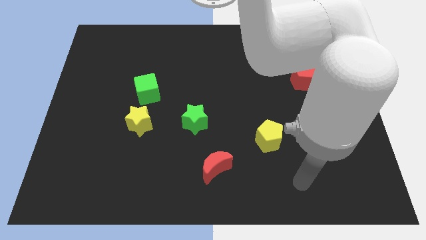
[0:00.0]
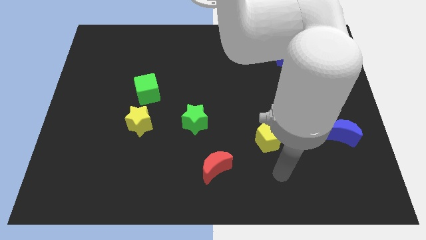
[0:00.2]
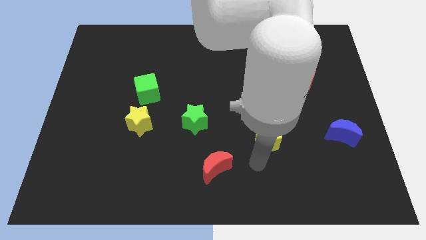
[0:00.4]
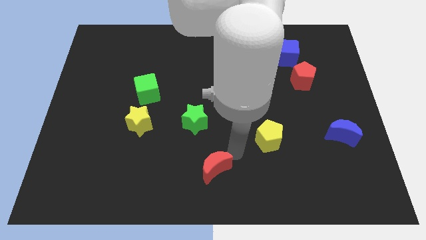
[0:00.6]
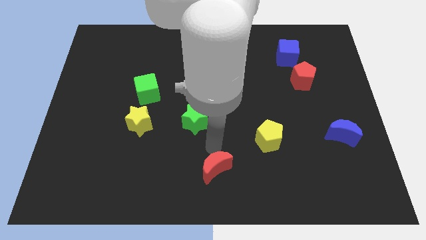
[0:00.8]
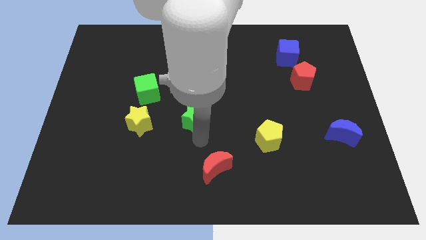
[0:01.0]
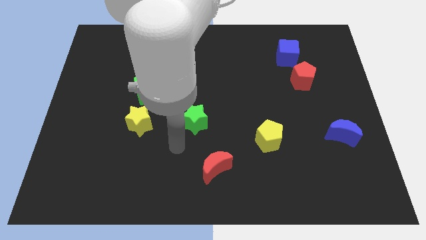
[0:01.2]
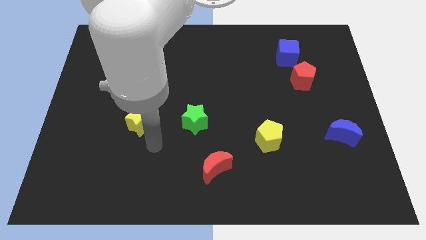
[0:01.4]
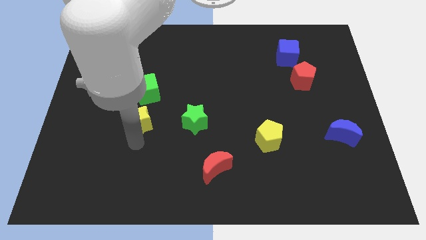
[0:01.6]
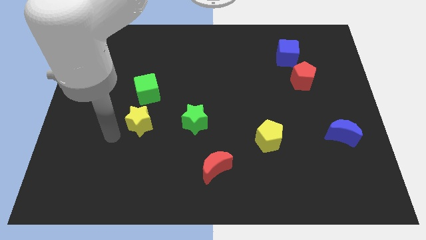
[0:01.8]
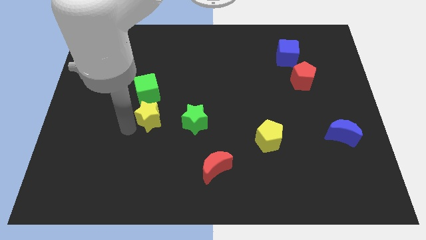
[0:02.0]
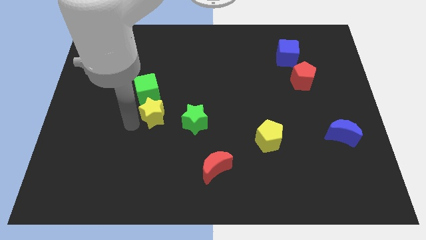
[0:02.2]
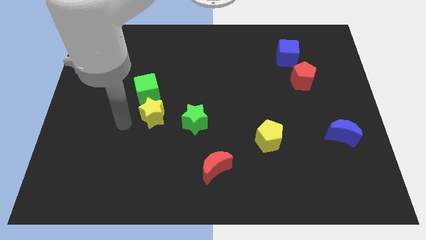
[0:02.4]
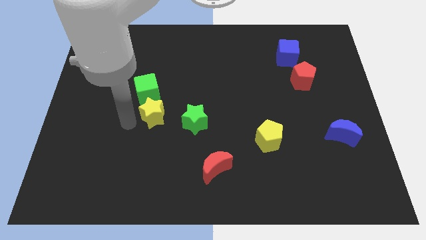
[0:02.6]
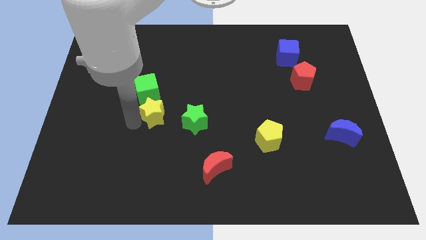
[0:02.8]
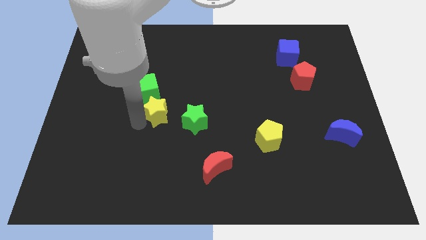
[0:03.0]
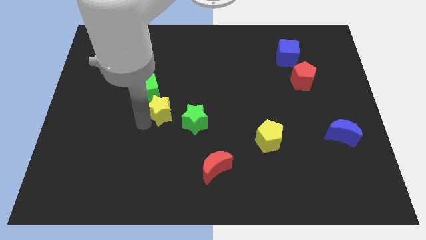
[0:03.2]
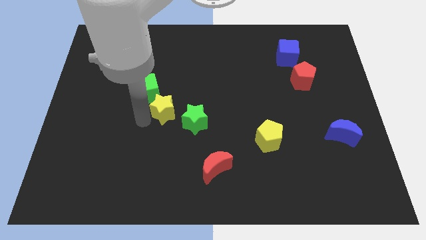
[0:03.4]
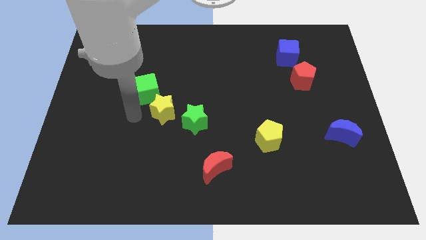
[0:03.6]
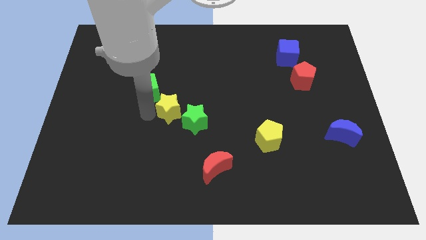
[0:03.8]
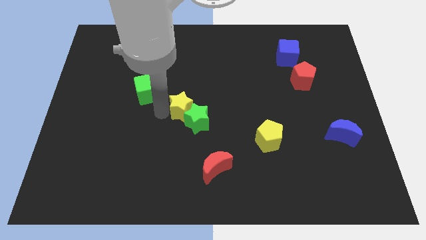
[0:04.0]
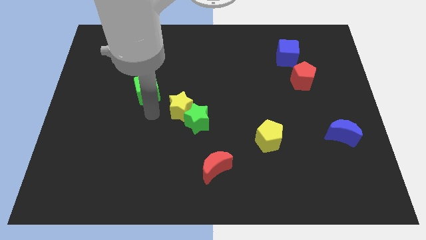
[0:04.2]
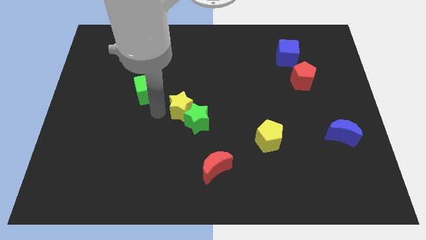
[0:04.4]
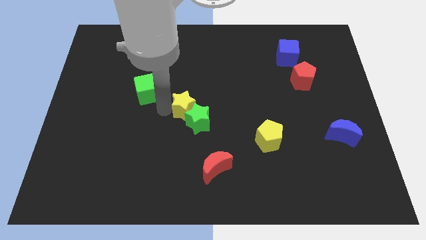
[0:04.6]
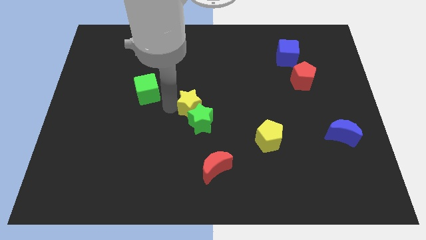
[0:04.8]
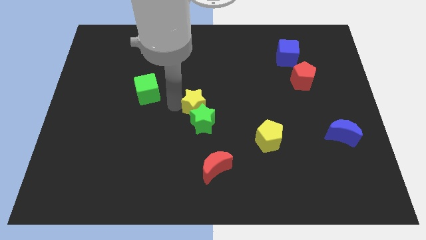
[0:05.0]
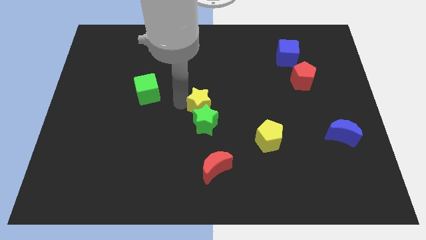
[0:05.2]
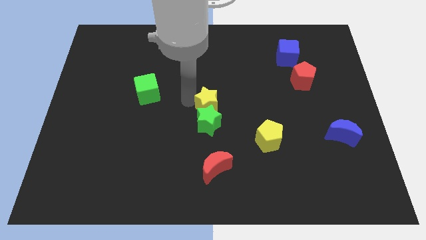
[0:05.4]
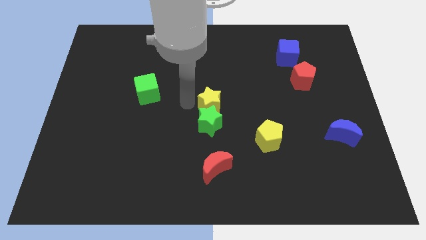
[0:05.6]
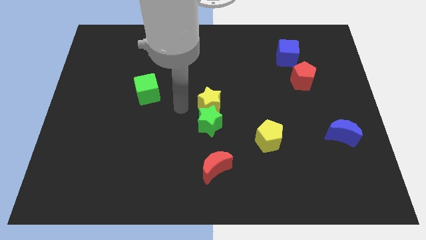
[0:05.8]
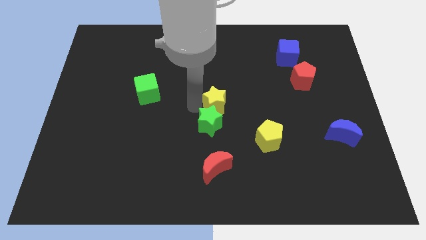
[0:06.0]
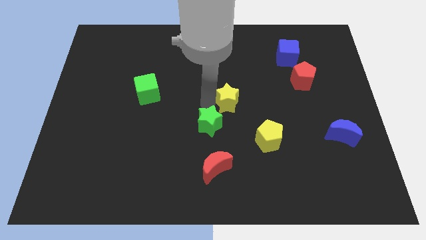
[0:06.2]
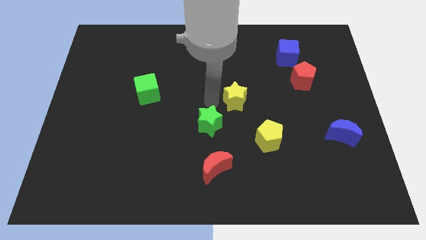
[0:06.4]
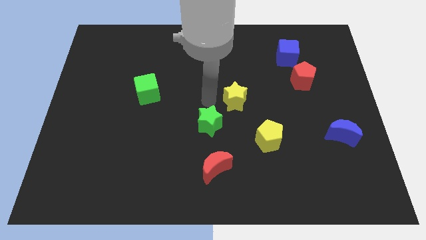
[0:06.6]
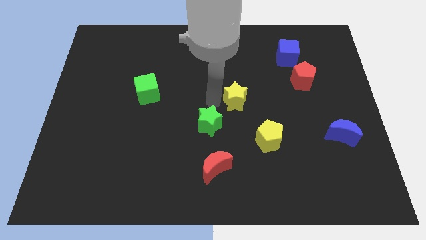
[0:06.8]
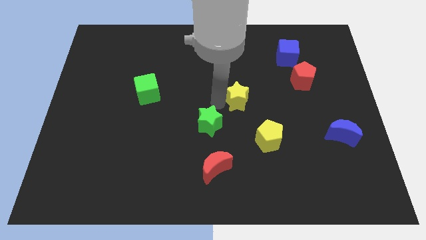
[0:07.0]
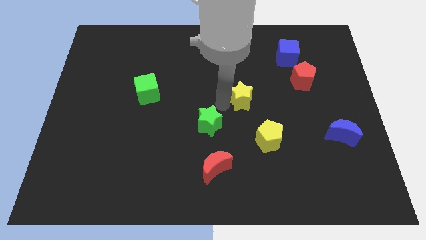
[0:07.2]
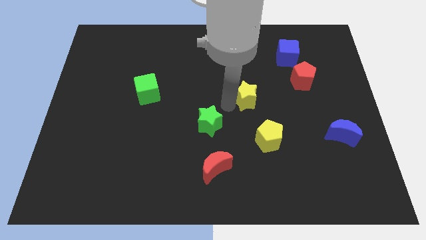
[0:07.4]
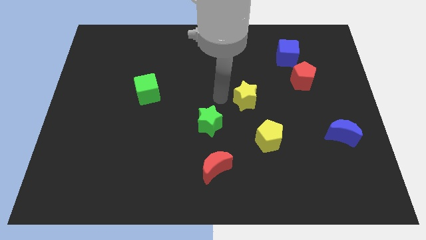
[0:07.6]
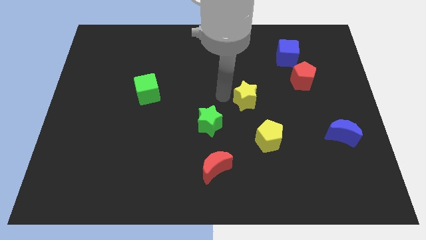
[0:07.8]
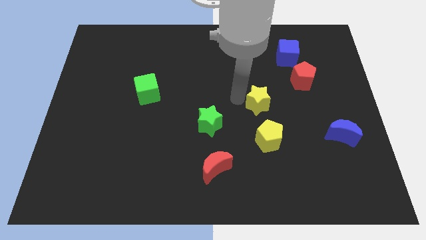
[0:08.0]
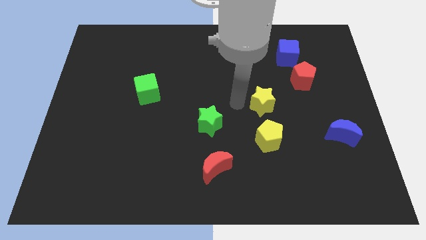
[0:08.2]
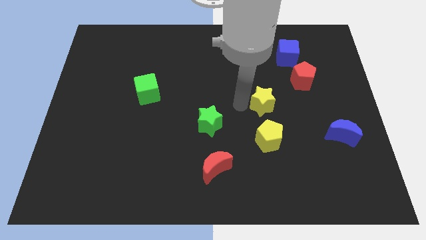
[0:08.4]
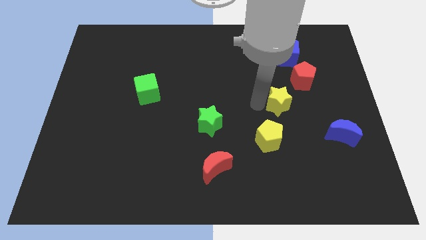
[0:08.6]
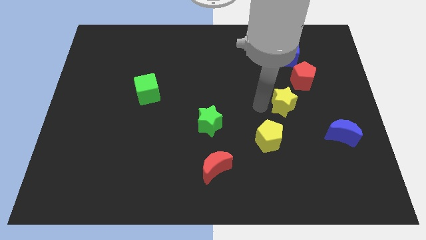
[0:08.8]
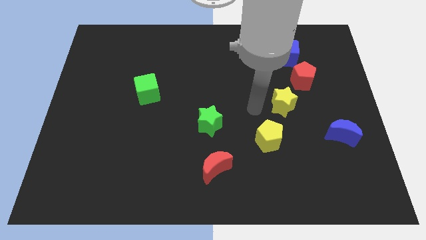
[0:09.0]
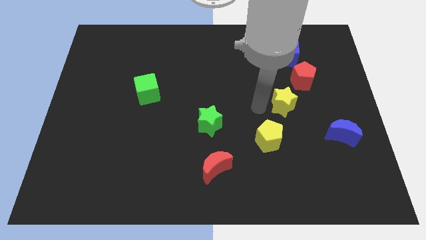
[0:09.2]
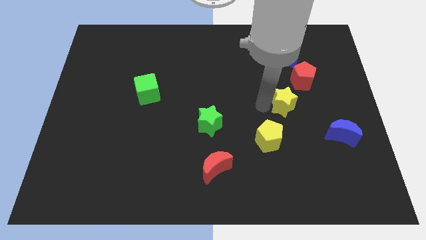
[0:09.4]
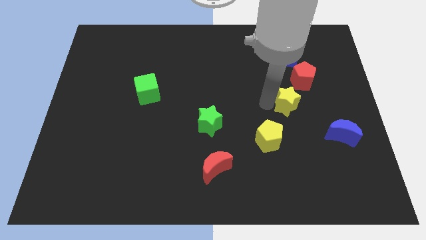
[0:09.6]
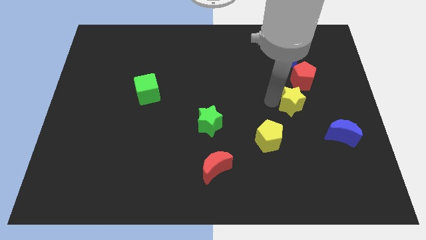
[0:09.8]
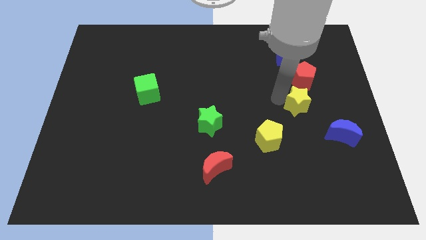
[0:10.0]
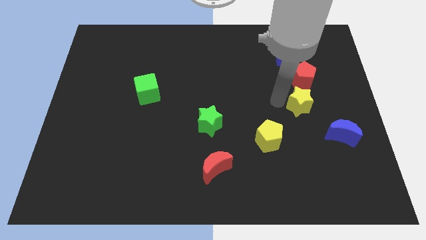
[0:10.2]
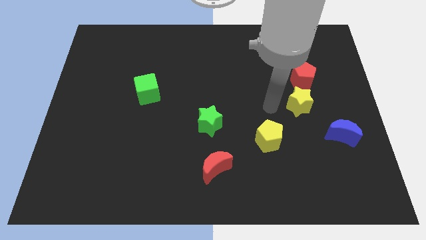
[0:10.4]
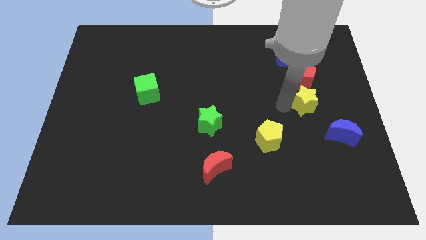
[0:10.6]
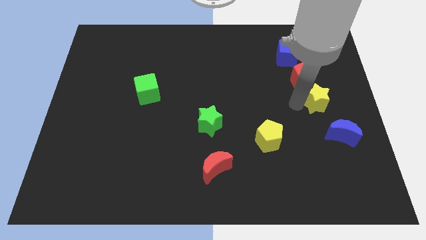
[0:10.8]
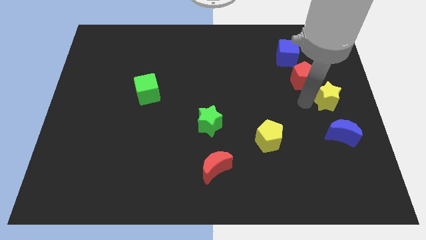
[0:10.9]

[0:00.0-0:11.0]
move the yellow star to the center right

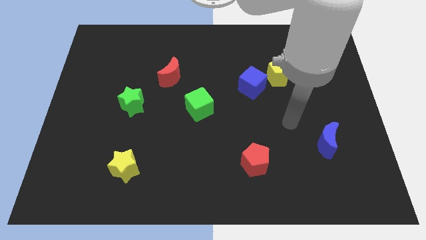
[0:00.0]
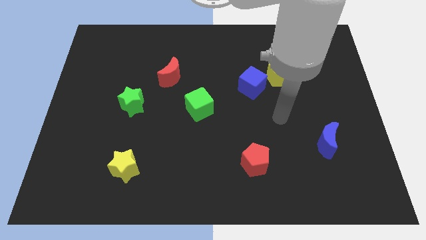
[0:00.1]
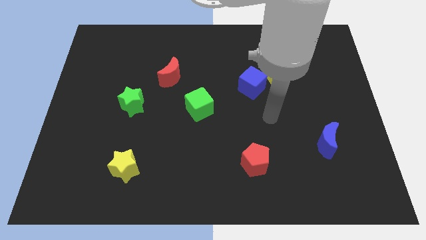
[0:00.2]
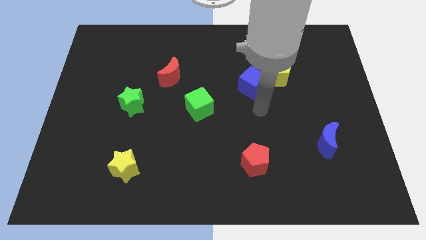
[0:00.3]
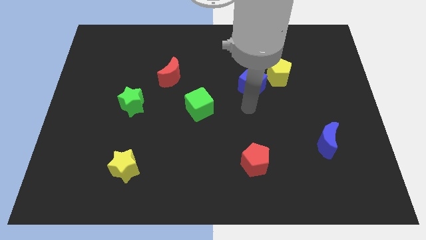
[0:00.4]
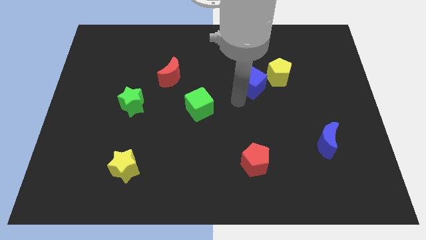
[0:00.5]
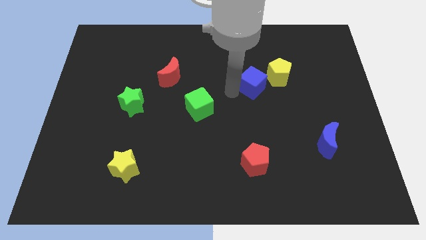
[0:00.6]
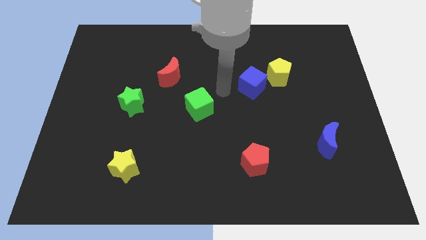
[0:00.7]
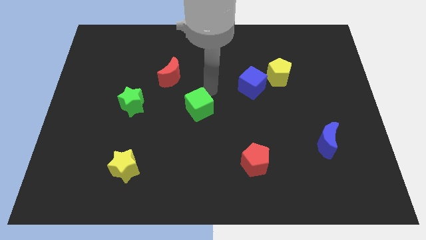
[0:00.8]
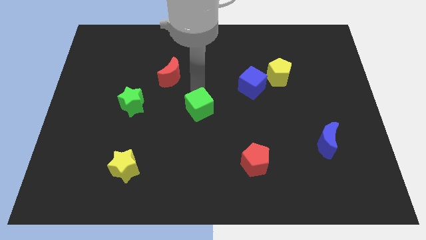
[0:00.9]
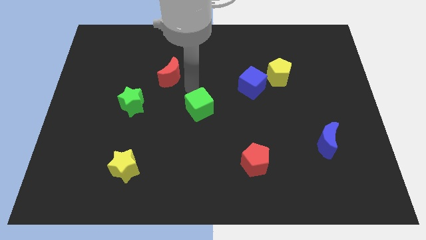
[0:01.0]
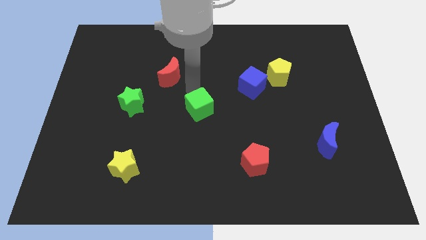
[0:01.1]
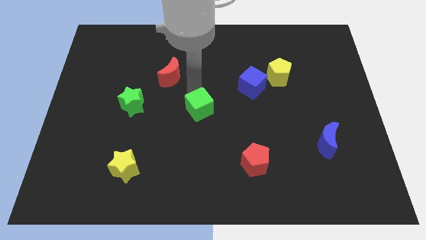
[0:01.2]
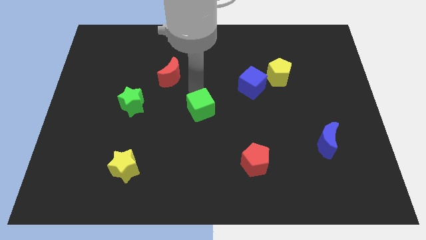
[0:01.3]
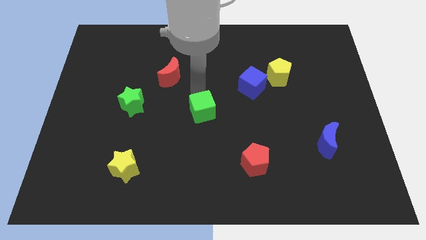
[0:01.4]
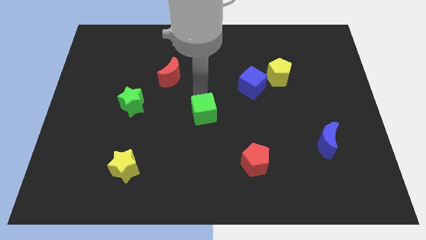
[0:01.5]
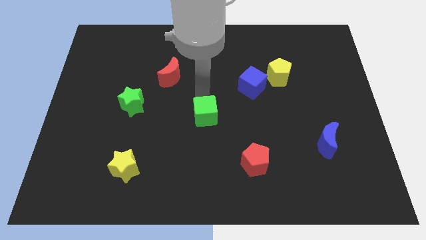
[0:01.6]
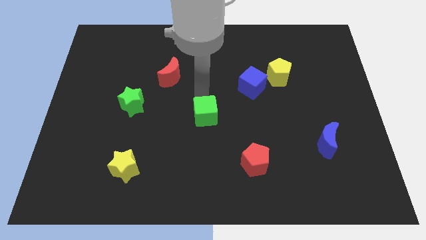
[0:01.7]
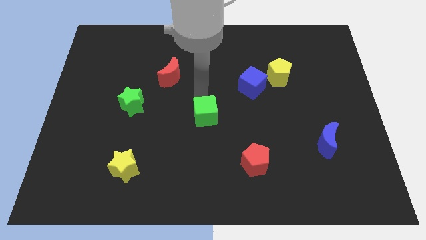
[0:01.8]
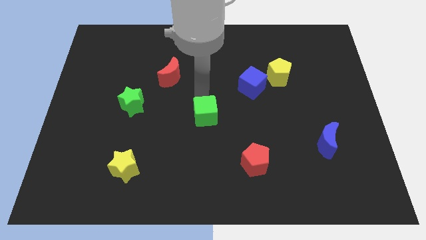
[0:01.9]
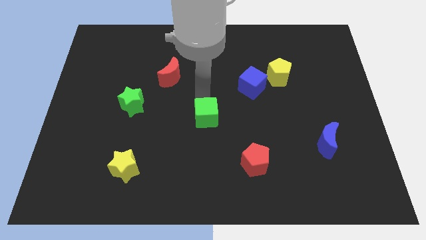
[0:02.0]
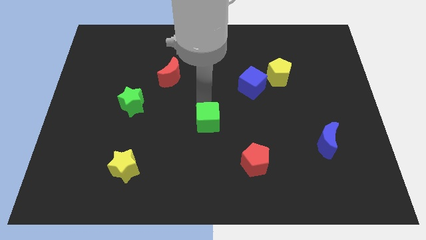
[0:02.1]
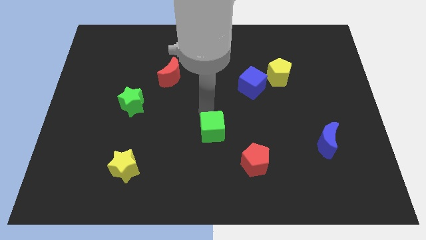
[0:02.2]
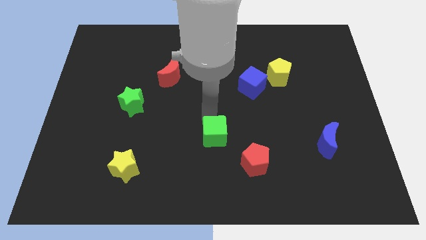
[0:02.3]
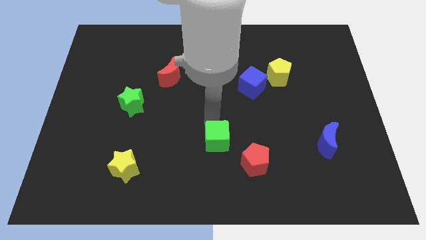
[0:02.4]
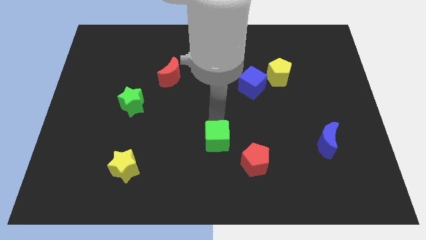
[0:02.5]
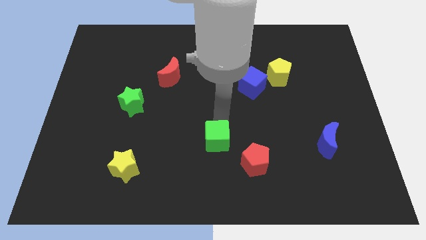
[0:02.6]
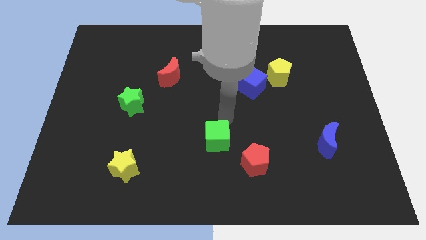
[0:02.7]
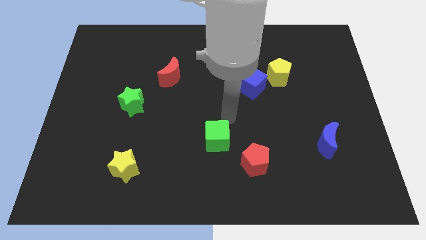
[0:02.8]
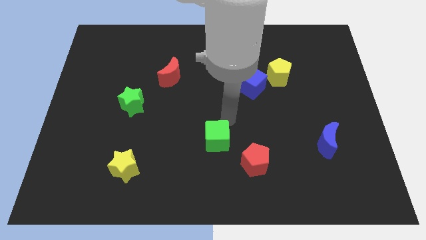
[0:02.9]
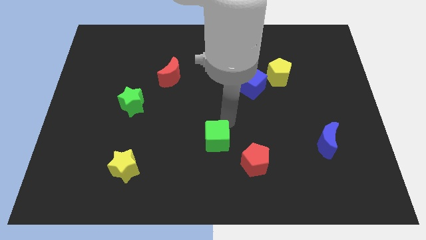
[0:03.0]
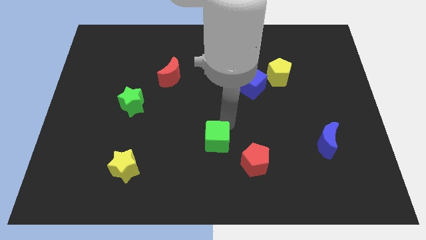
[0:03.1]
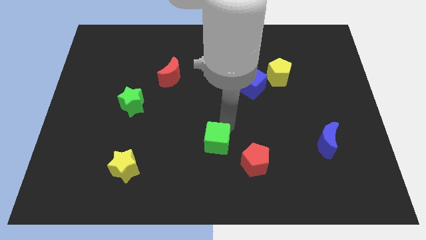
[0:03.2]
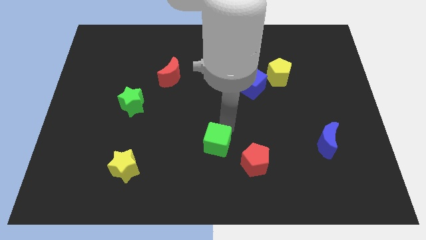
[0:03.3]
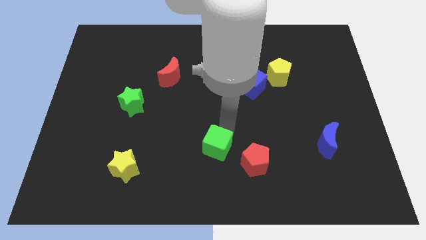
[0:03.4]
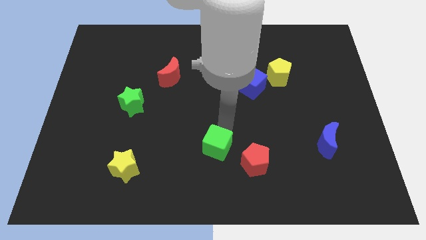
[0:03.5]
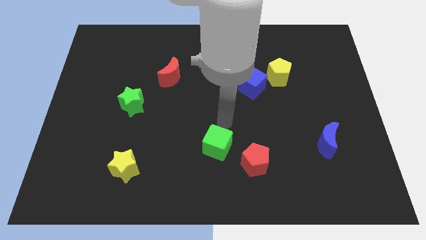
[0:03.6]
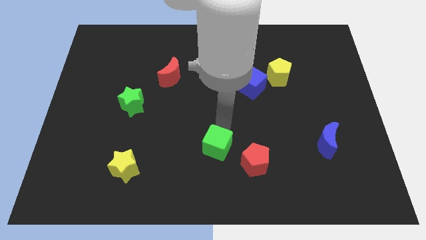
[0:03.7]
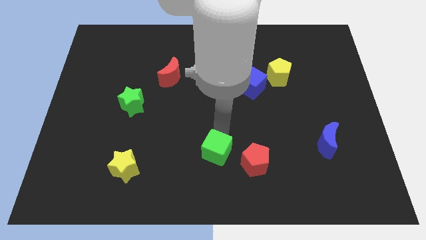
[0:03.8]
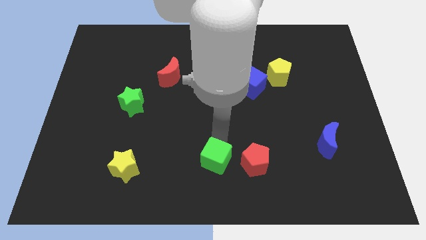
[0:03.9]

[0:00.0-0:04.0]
move the green cube to the bottom side
